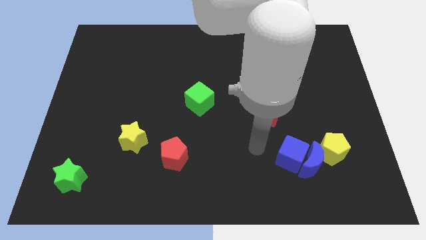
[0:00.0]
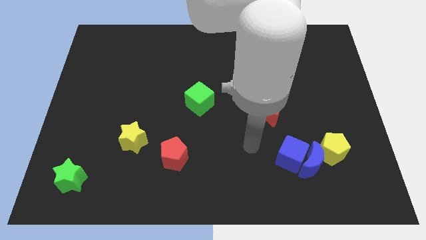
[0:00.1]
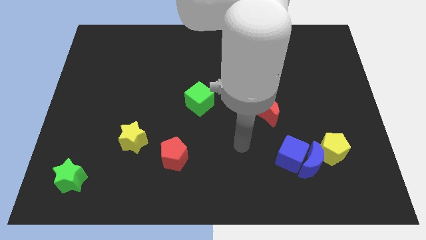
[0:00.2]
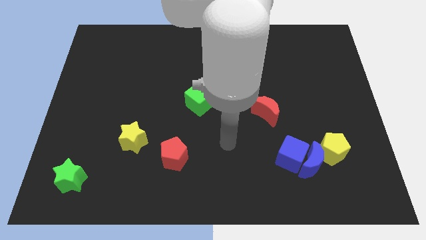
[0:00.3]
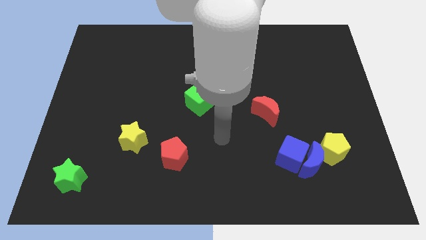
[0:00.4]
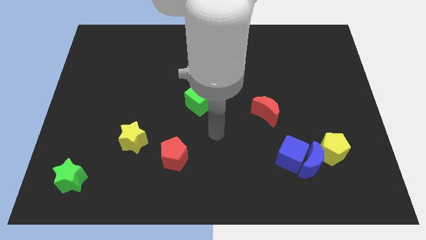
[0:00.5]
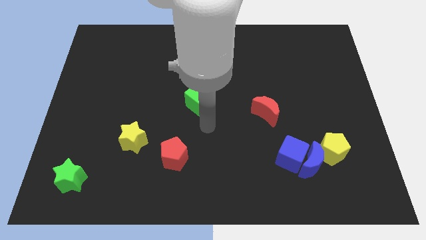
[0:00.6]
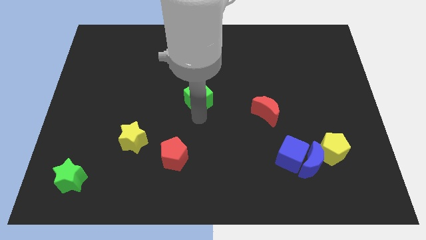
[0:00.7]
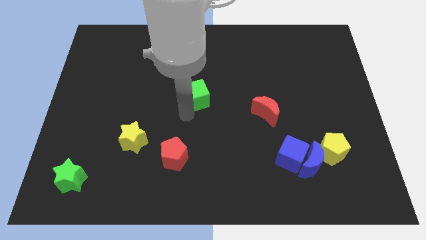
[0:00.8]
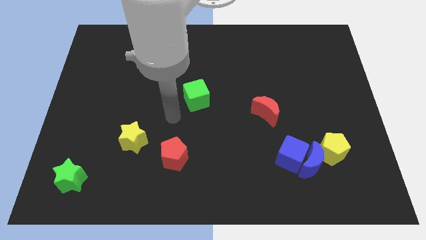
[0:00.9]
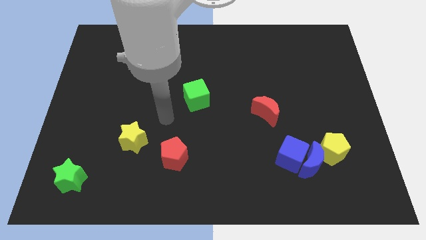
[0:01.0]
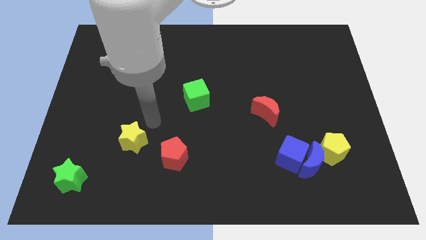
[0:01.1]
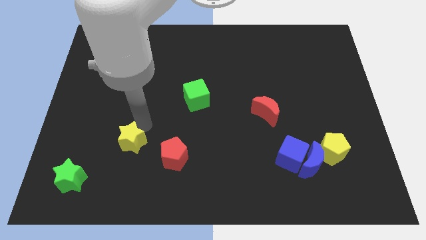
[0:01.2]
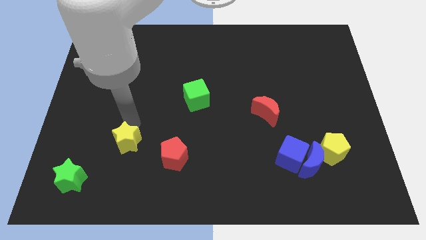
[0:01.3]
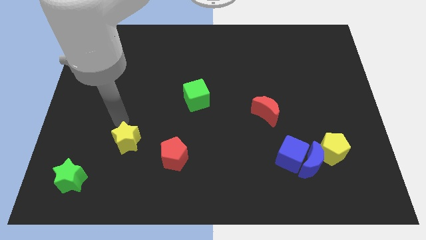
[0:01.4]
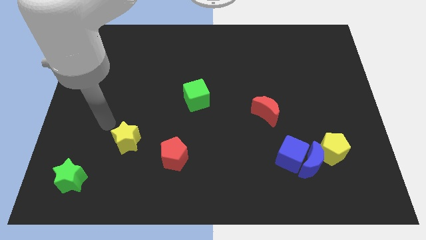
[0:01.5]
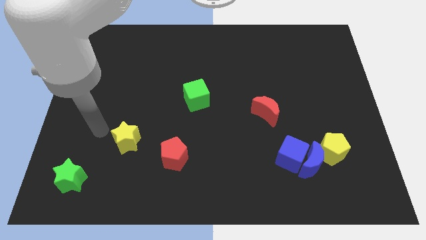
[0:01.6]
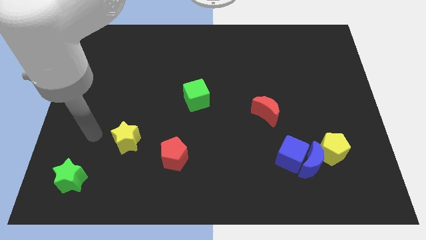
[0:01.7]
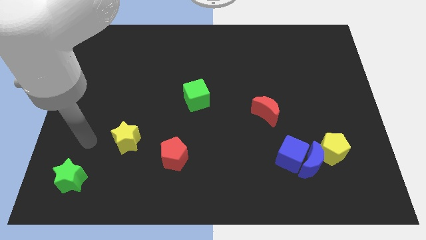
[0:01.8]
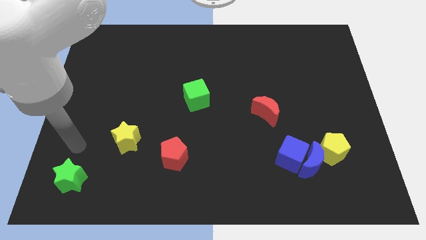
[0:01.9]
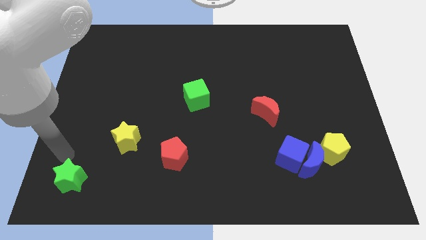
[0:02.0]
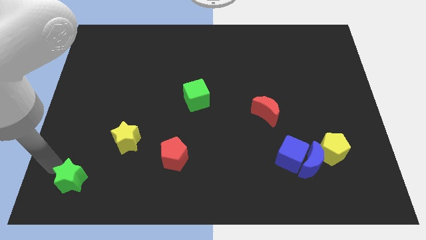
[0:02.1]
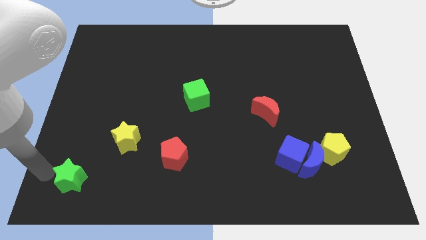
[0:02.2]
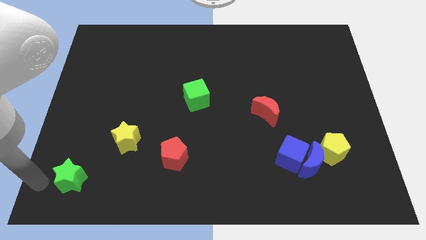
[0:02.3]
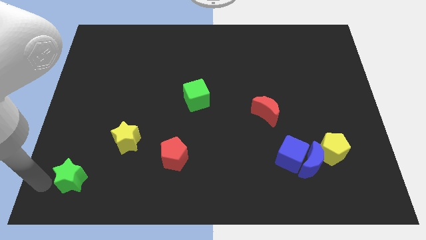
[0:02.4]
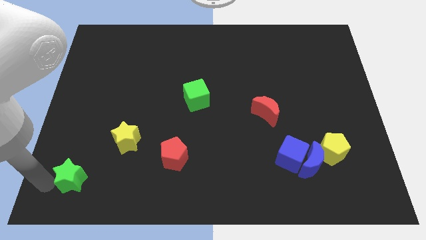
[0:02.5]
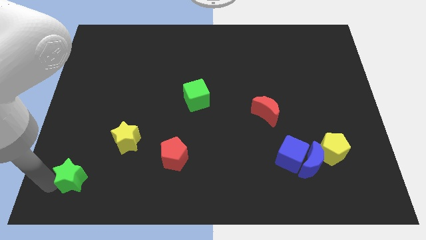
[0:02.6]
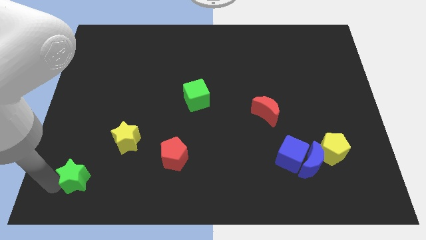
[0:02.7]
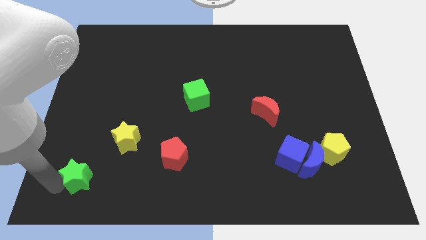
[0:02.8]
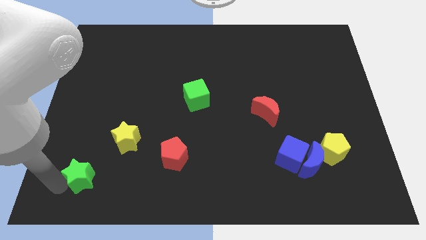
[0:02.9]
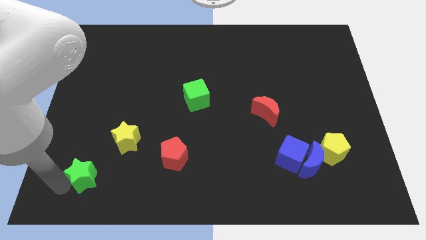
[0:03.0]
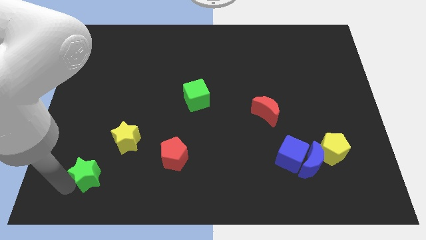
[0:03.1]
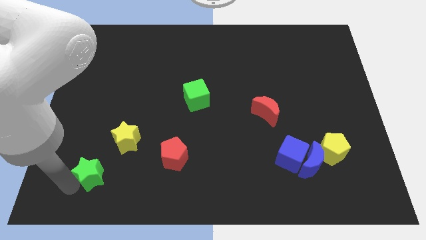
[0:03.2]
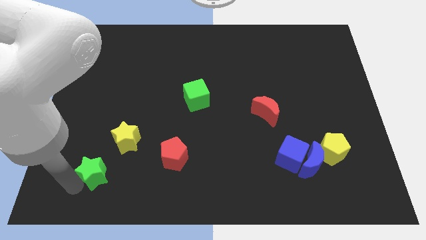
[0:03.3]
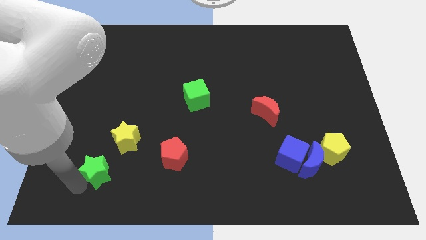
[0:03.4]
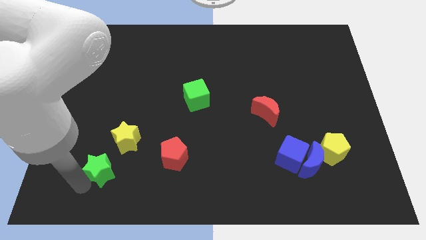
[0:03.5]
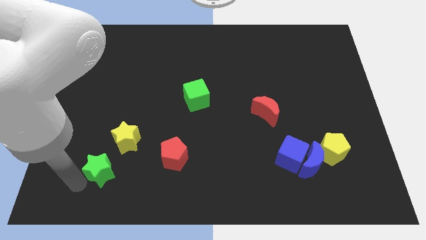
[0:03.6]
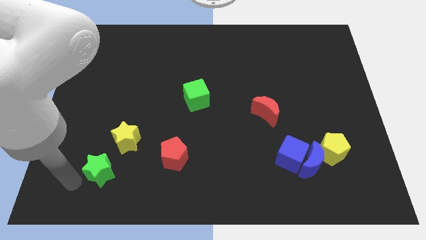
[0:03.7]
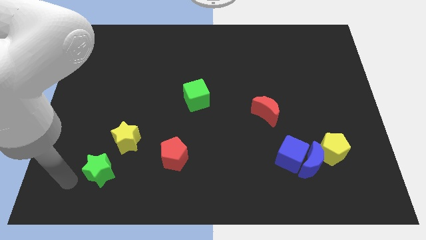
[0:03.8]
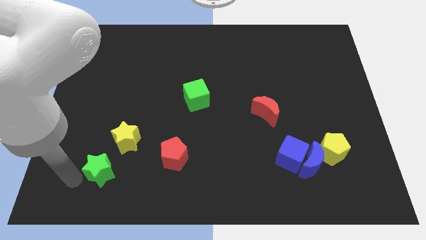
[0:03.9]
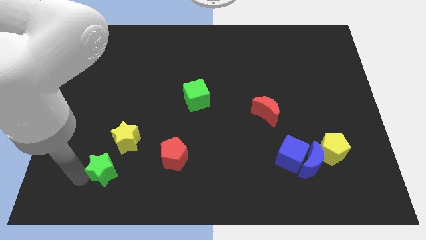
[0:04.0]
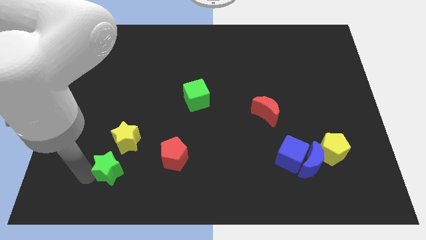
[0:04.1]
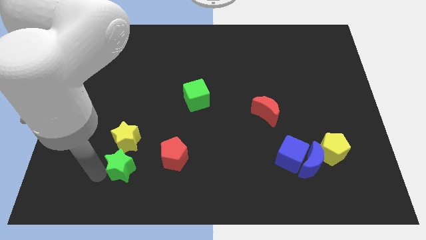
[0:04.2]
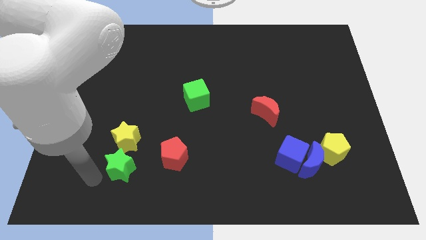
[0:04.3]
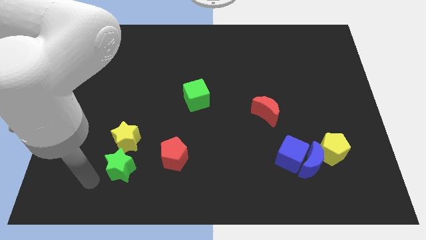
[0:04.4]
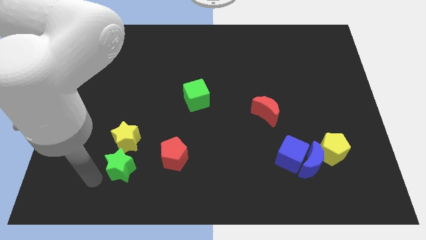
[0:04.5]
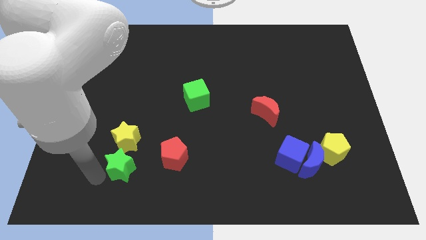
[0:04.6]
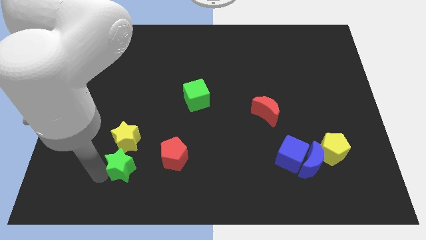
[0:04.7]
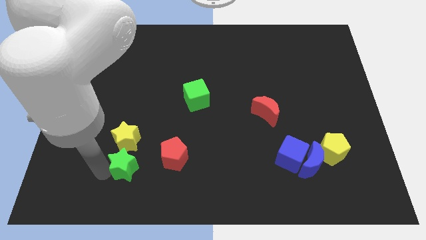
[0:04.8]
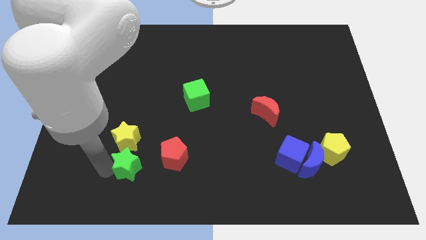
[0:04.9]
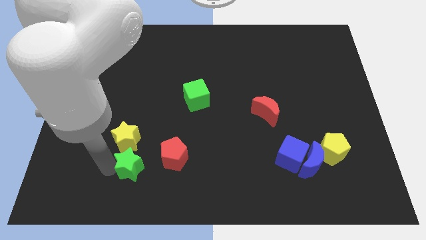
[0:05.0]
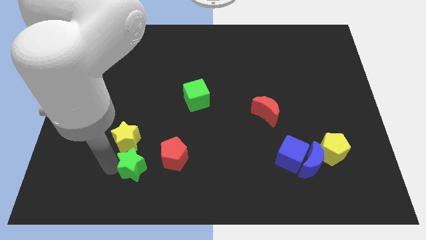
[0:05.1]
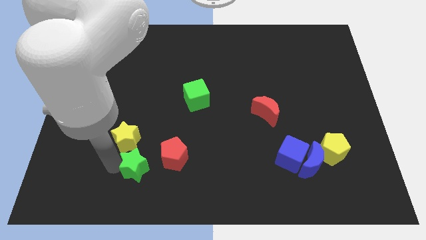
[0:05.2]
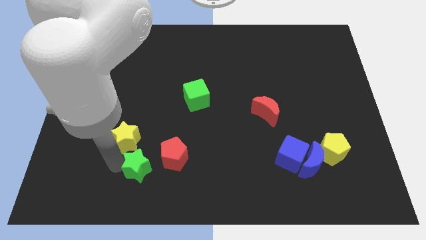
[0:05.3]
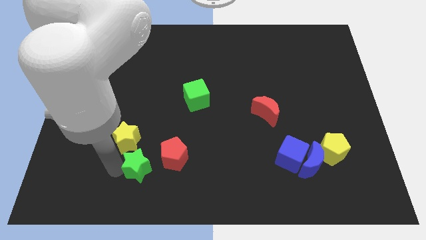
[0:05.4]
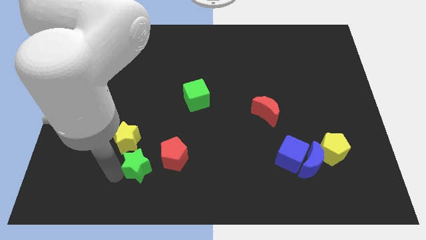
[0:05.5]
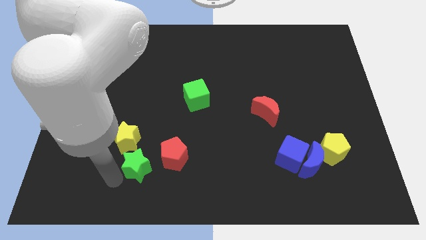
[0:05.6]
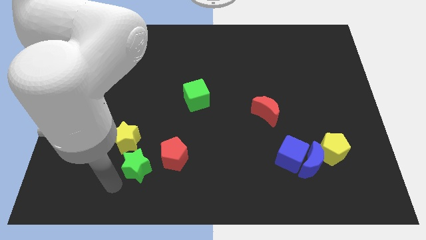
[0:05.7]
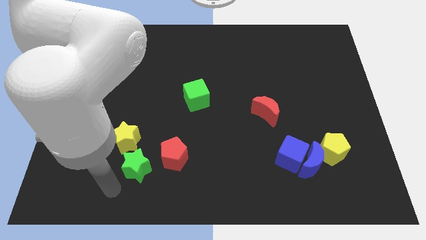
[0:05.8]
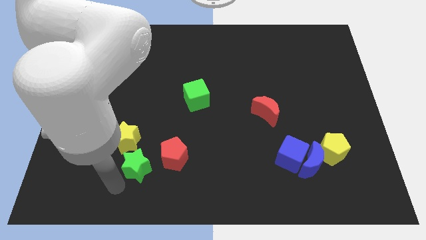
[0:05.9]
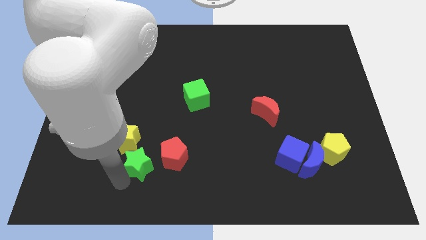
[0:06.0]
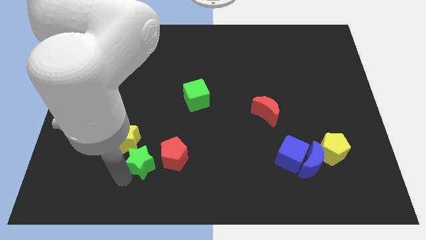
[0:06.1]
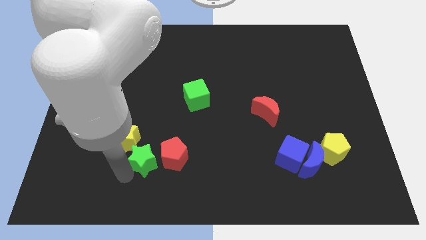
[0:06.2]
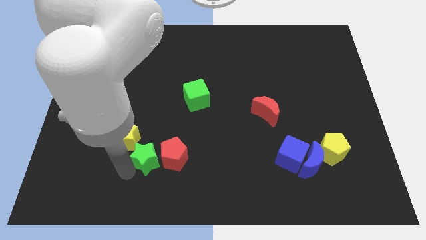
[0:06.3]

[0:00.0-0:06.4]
put the green star close to the red pentagon
